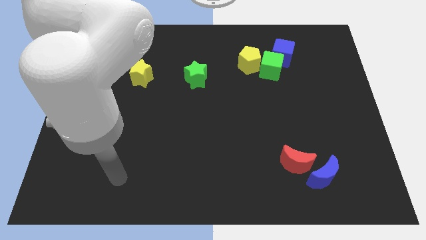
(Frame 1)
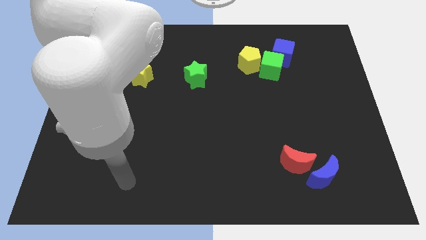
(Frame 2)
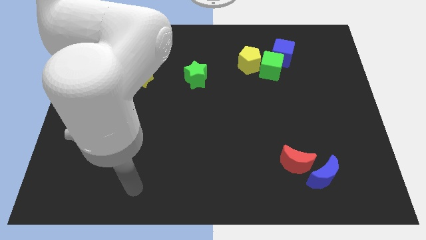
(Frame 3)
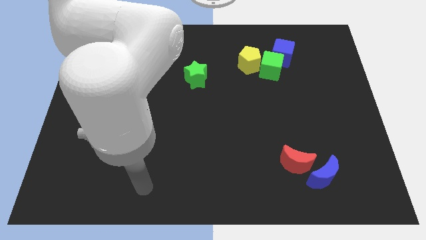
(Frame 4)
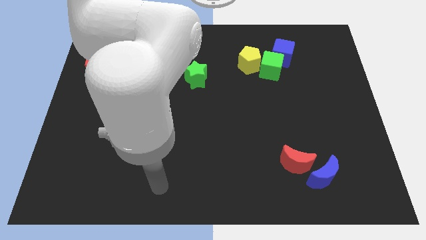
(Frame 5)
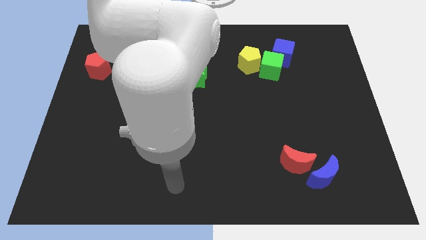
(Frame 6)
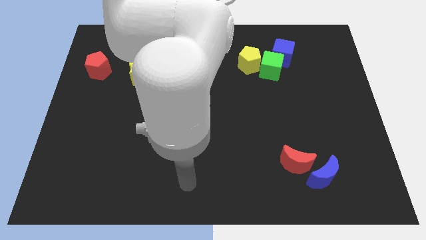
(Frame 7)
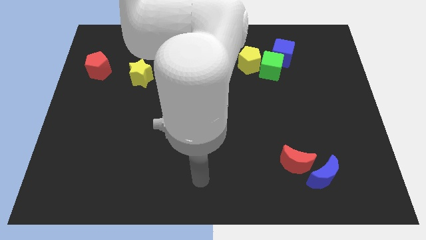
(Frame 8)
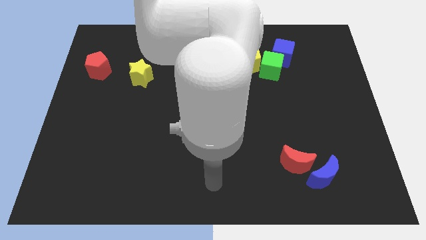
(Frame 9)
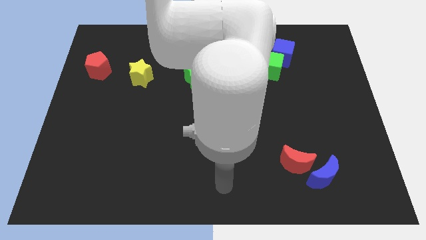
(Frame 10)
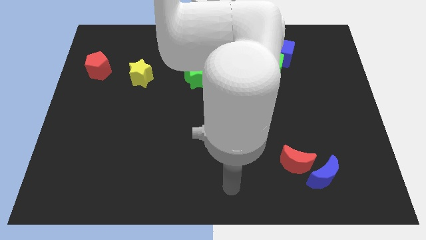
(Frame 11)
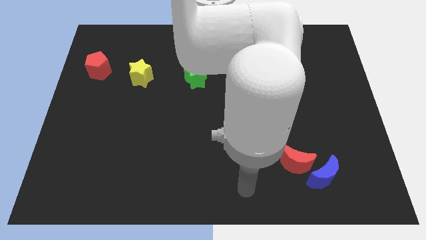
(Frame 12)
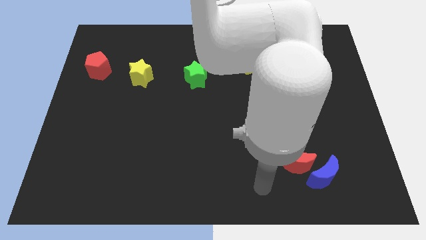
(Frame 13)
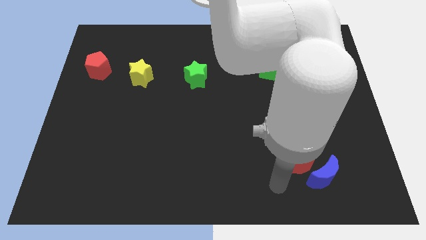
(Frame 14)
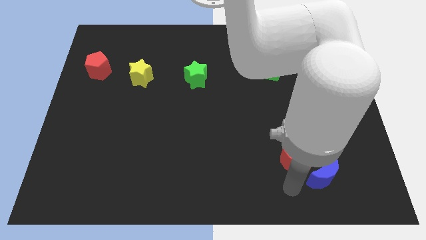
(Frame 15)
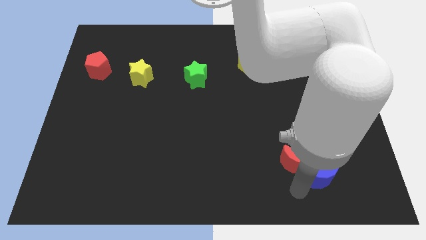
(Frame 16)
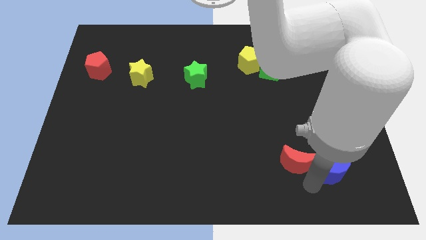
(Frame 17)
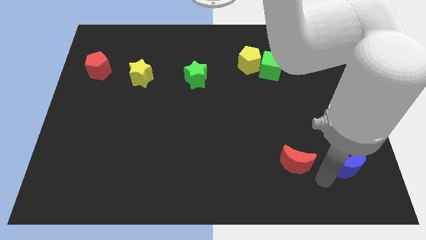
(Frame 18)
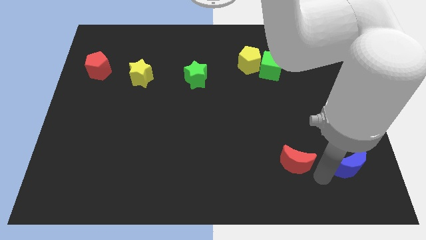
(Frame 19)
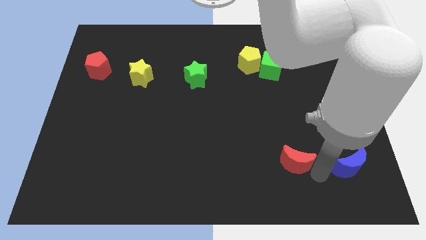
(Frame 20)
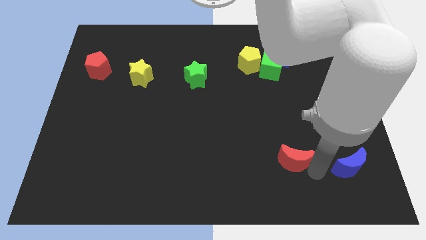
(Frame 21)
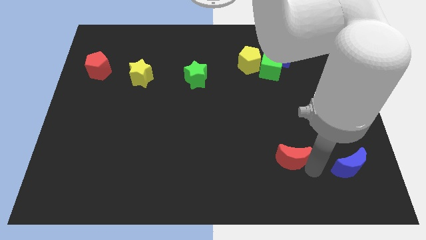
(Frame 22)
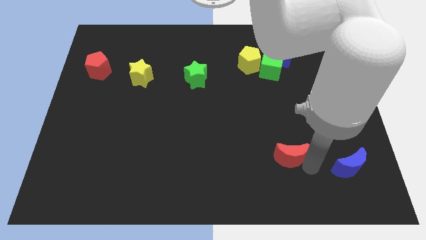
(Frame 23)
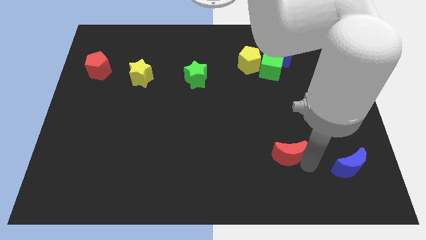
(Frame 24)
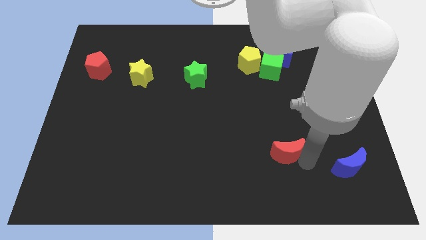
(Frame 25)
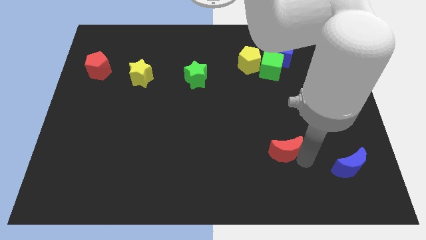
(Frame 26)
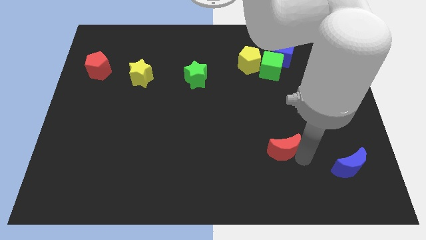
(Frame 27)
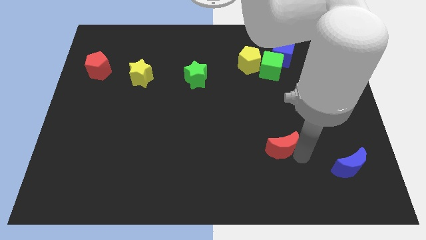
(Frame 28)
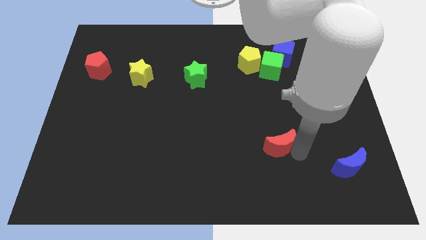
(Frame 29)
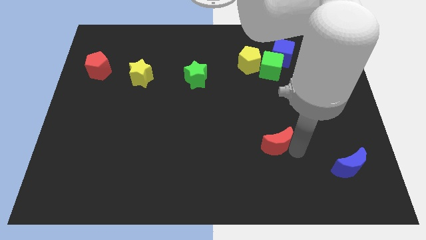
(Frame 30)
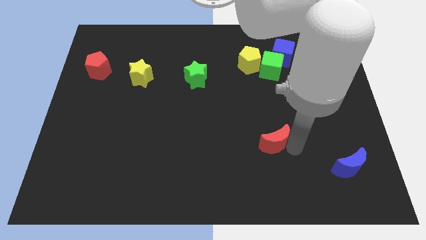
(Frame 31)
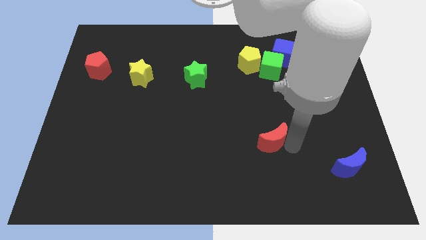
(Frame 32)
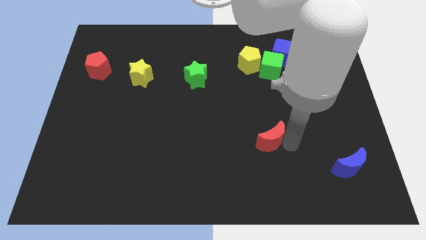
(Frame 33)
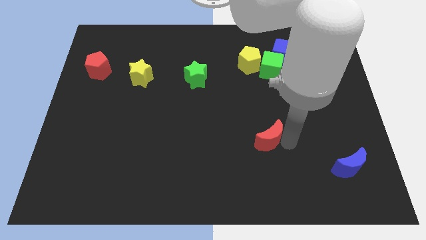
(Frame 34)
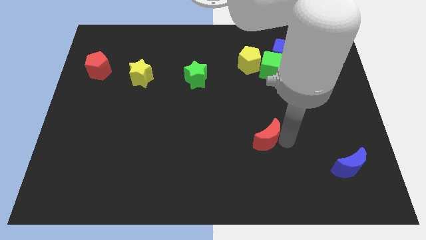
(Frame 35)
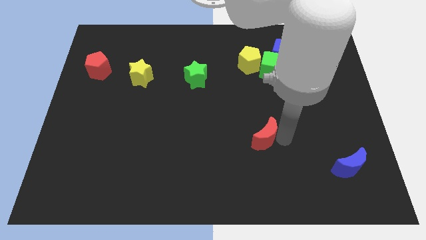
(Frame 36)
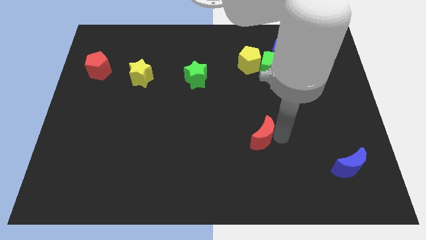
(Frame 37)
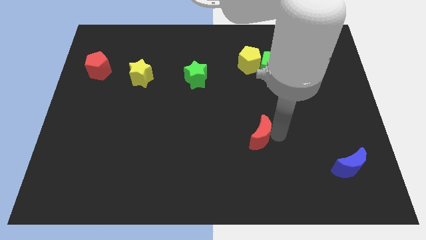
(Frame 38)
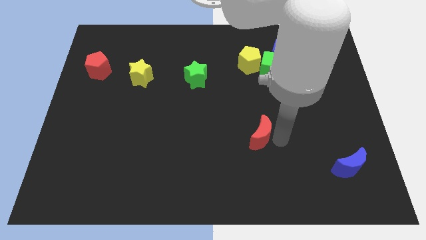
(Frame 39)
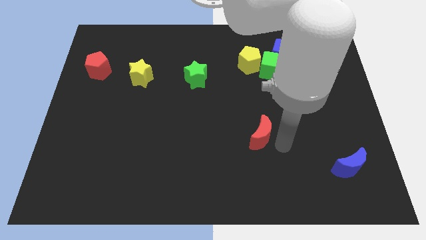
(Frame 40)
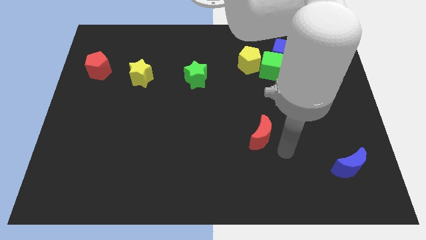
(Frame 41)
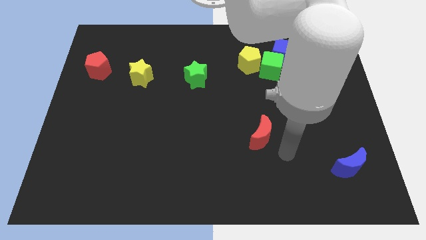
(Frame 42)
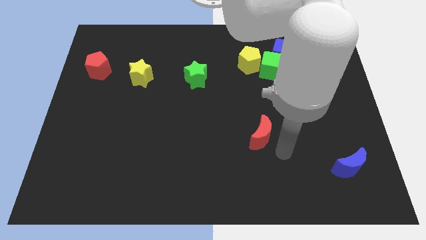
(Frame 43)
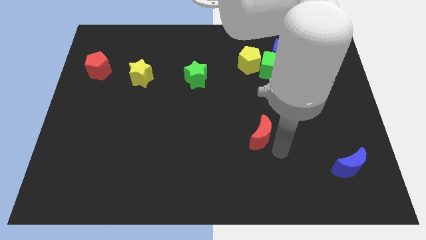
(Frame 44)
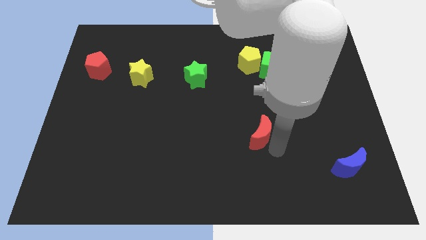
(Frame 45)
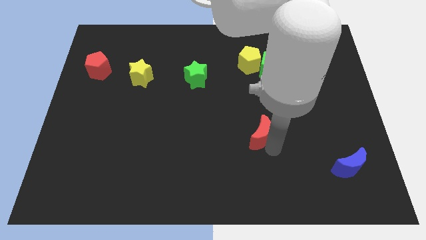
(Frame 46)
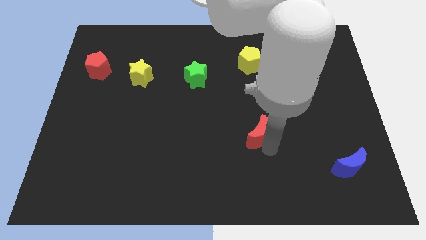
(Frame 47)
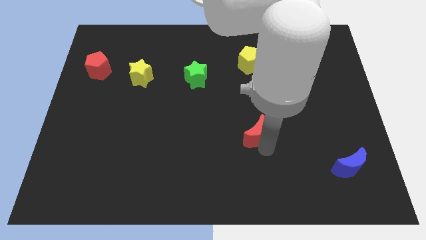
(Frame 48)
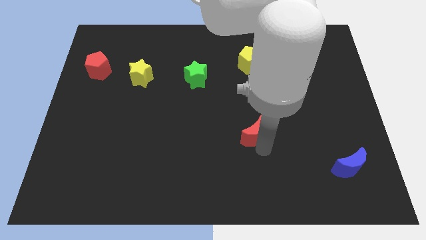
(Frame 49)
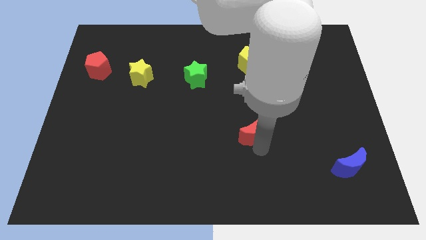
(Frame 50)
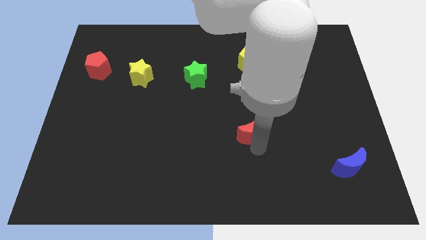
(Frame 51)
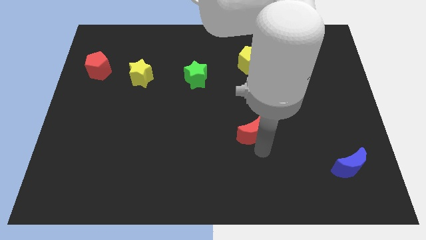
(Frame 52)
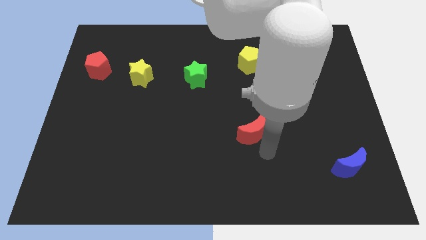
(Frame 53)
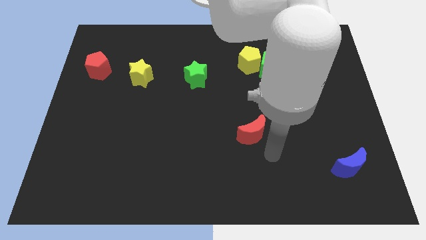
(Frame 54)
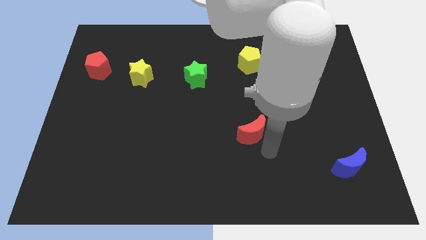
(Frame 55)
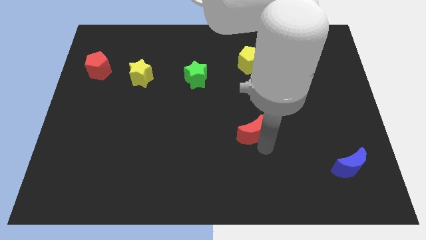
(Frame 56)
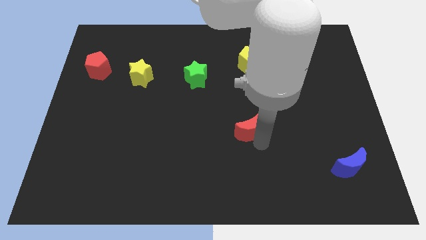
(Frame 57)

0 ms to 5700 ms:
slide the red moon to the center

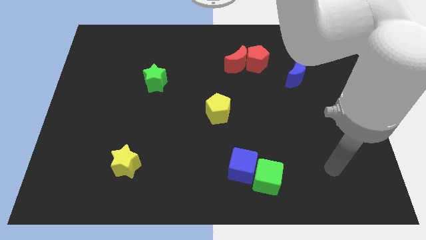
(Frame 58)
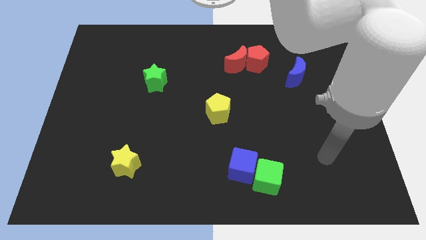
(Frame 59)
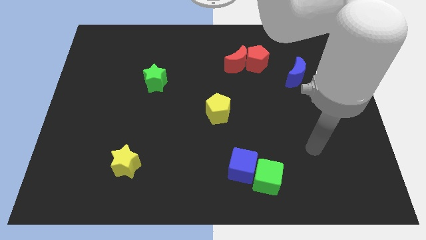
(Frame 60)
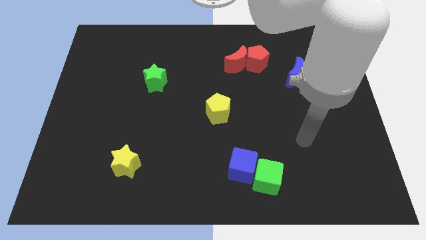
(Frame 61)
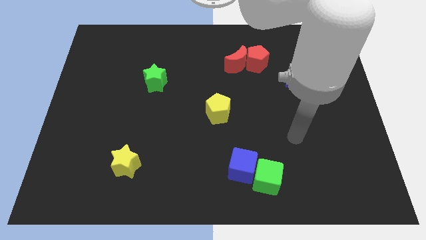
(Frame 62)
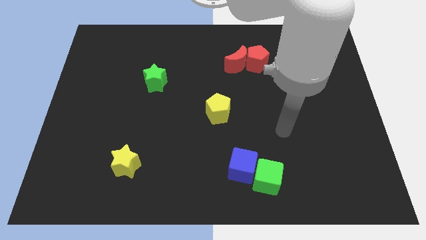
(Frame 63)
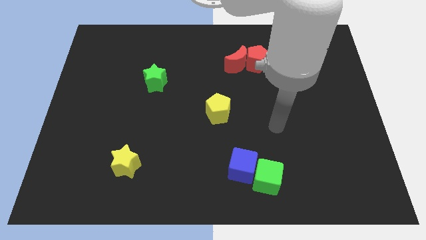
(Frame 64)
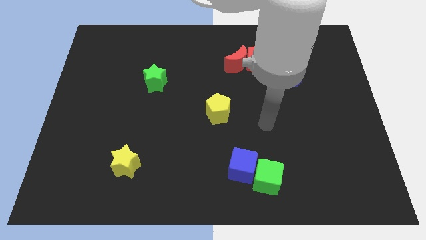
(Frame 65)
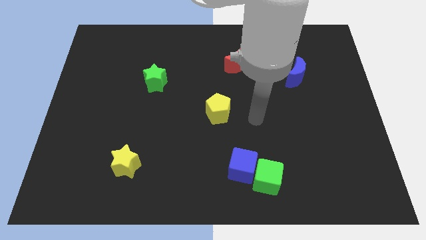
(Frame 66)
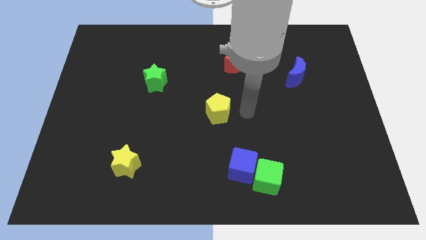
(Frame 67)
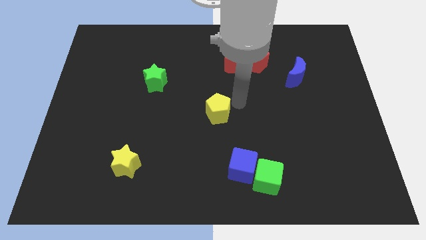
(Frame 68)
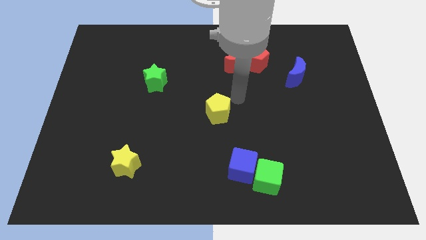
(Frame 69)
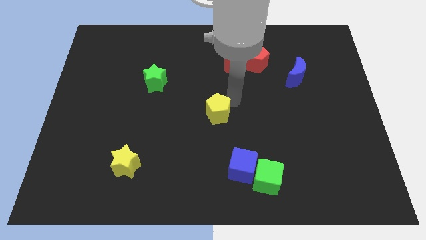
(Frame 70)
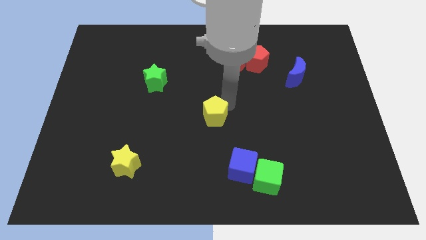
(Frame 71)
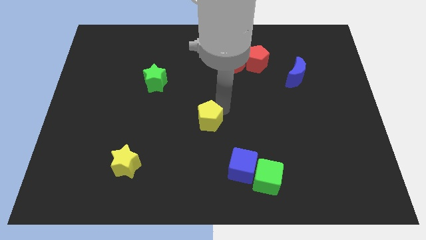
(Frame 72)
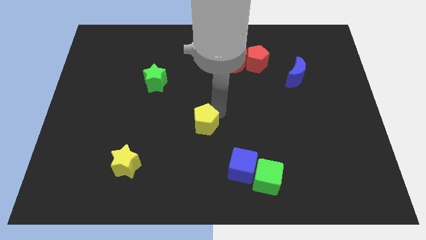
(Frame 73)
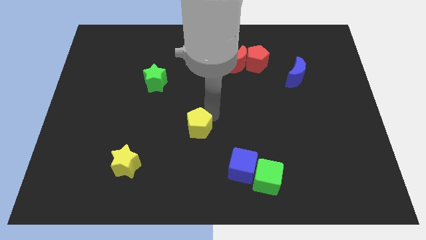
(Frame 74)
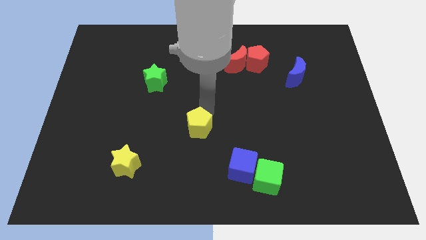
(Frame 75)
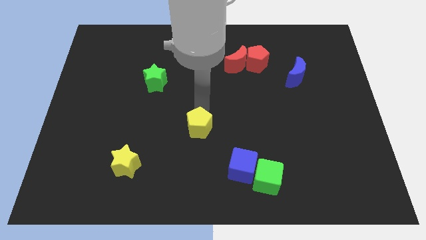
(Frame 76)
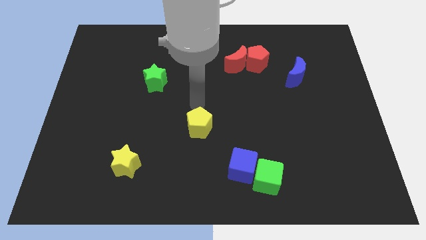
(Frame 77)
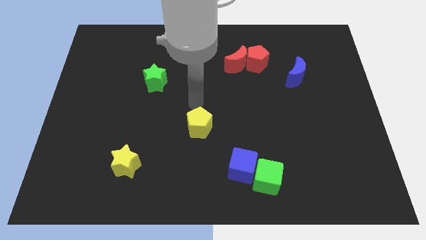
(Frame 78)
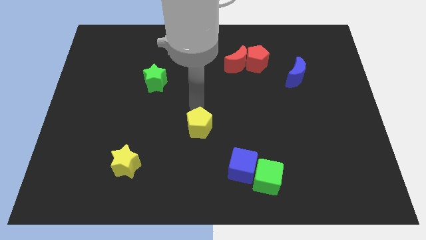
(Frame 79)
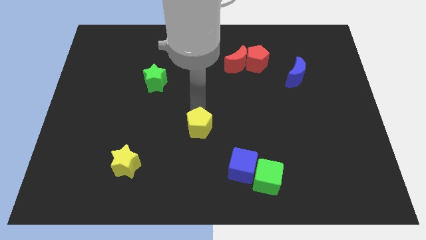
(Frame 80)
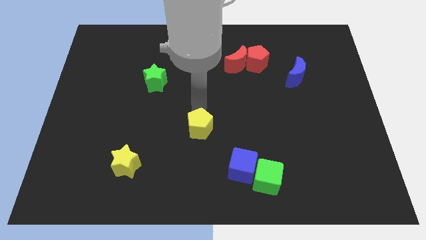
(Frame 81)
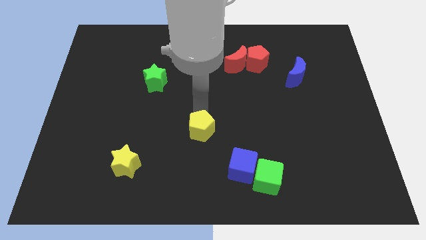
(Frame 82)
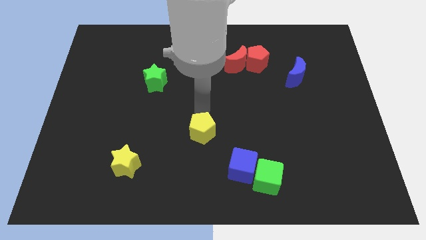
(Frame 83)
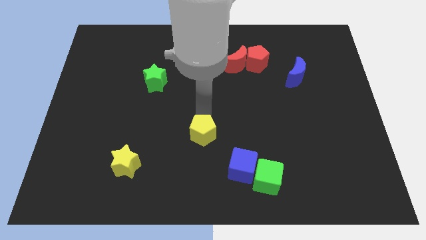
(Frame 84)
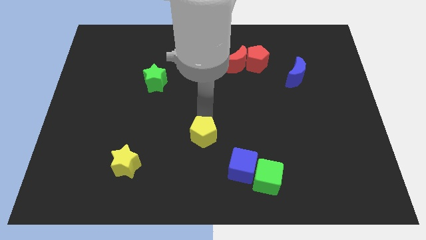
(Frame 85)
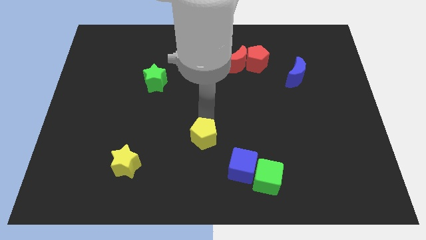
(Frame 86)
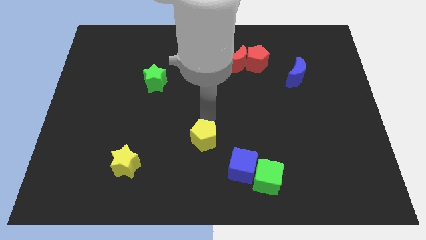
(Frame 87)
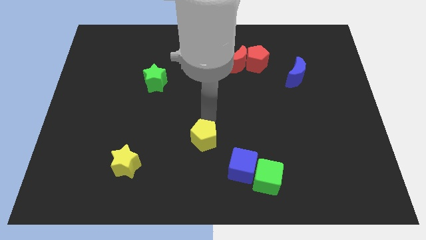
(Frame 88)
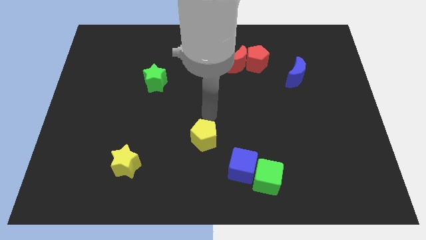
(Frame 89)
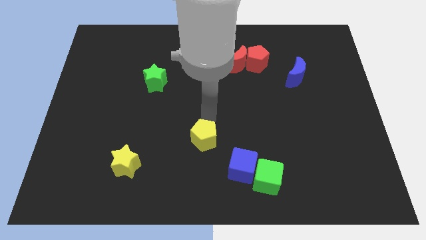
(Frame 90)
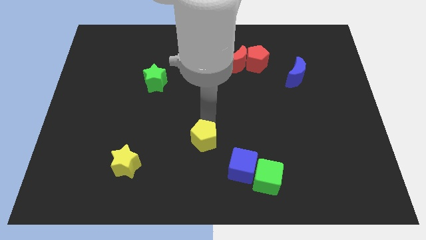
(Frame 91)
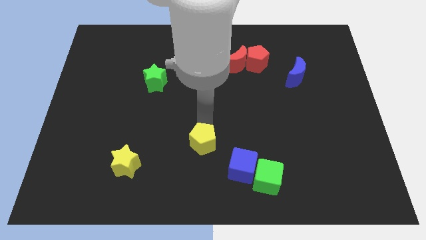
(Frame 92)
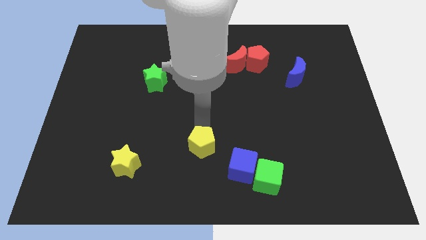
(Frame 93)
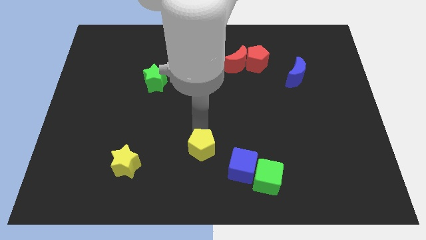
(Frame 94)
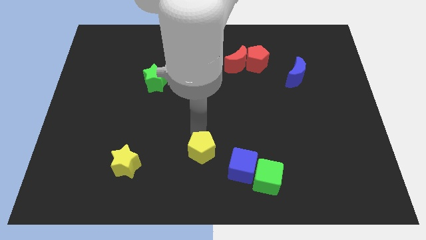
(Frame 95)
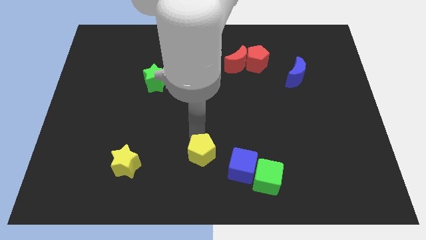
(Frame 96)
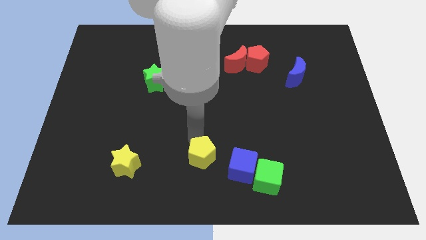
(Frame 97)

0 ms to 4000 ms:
put the yellow pentagon to the bottom side
